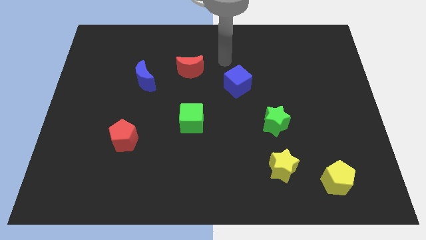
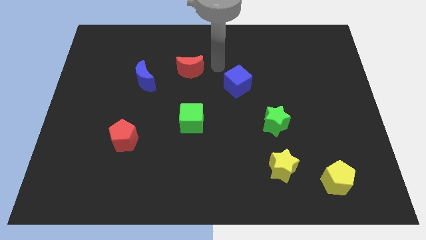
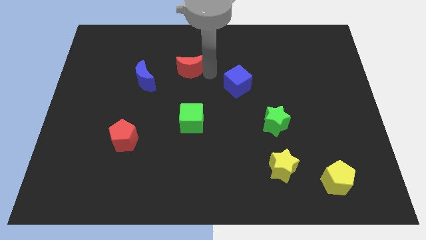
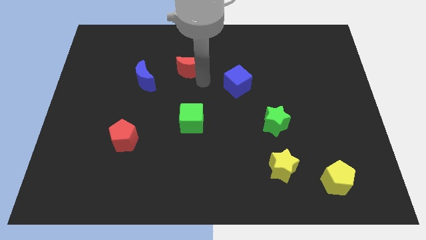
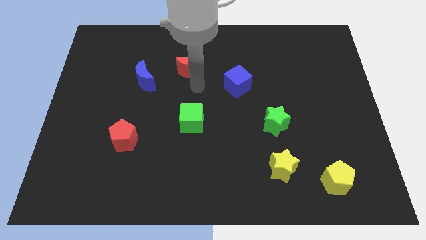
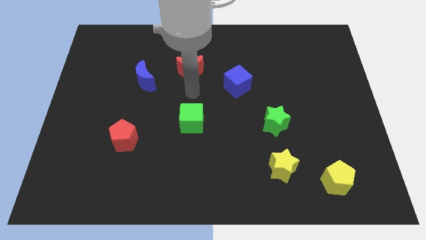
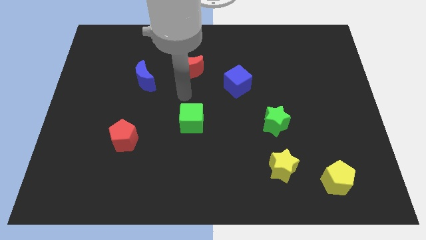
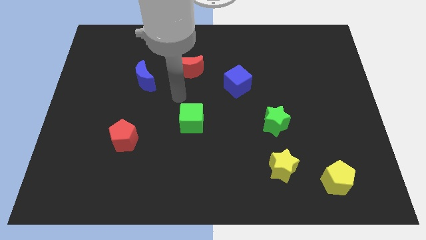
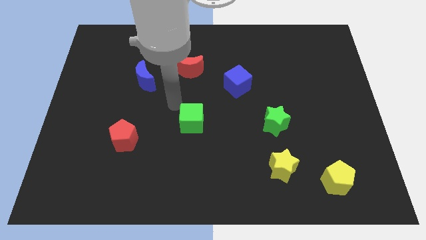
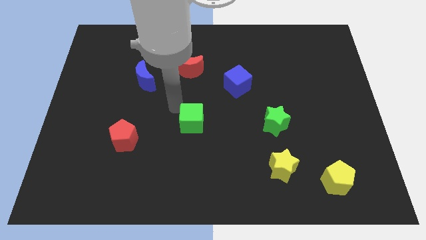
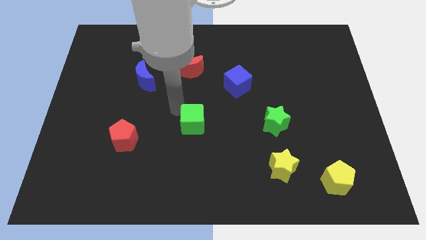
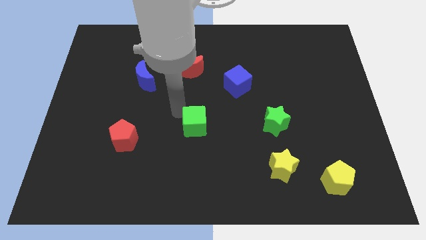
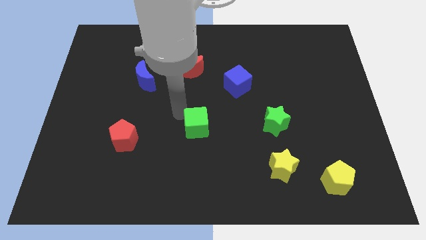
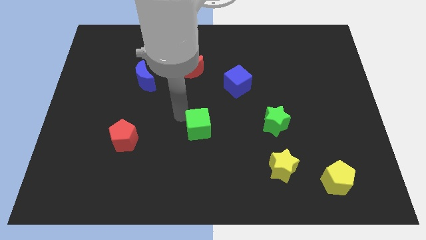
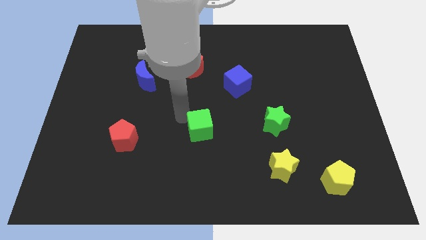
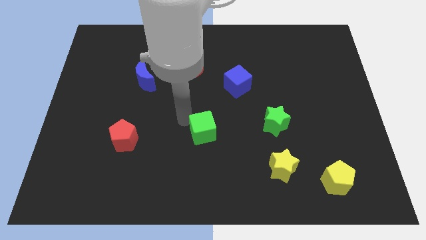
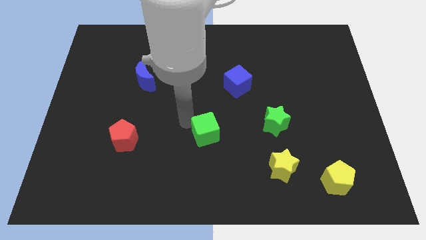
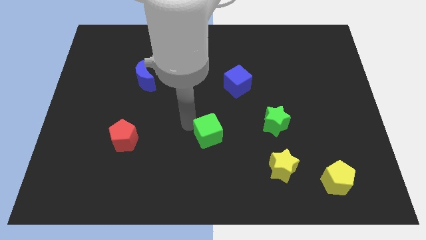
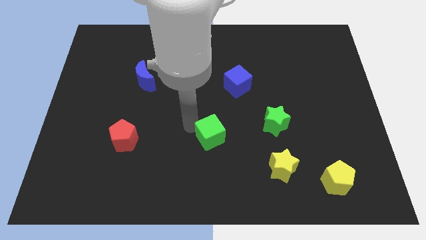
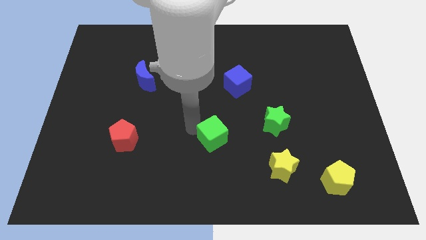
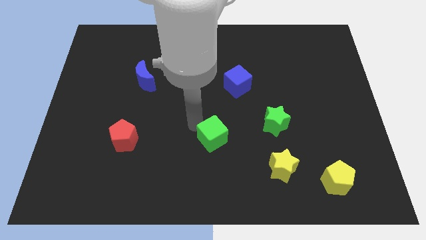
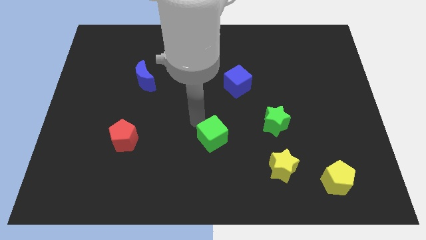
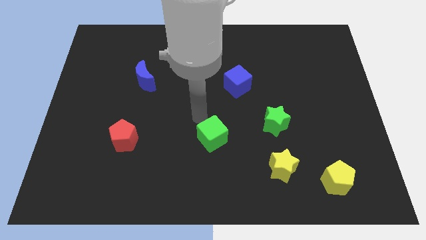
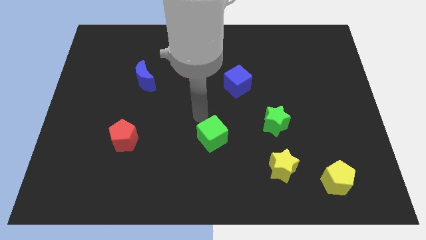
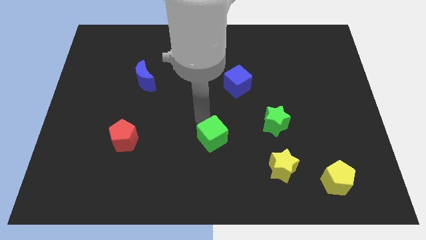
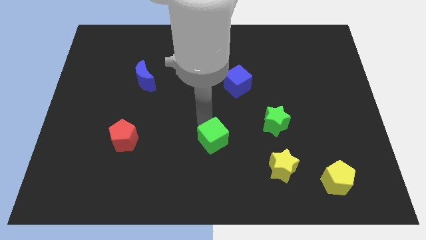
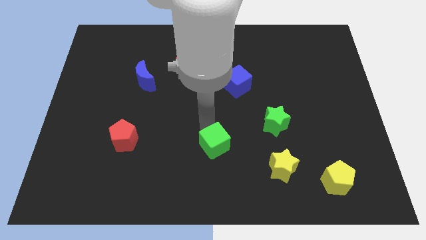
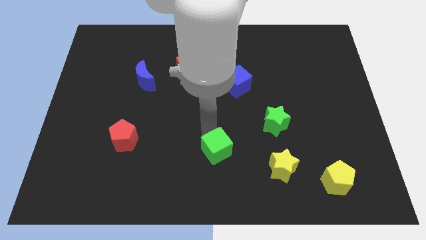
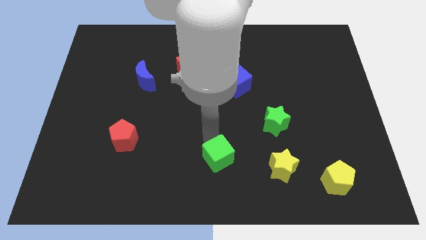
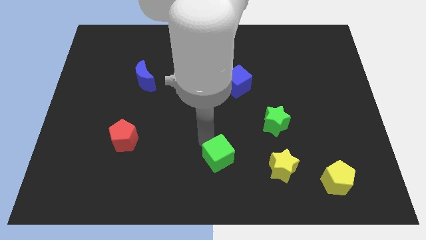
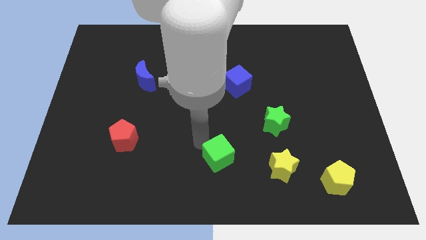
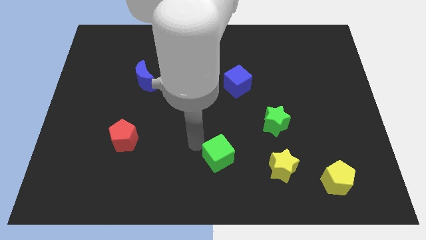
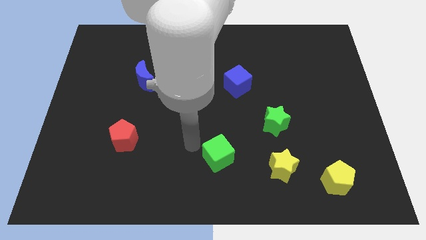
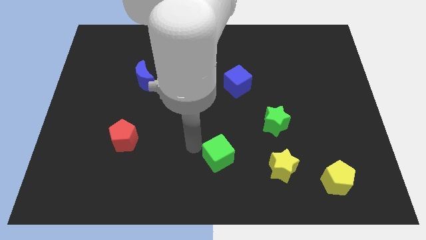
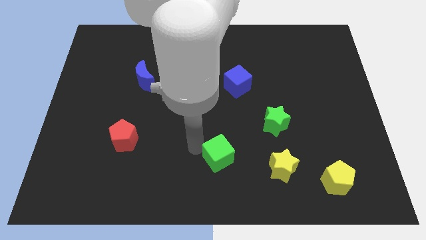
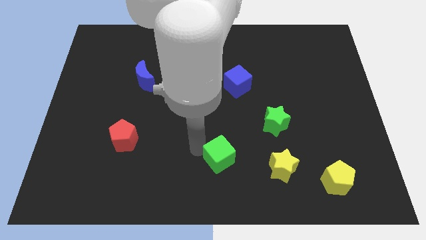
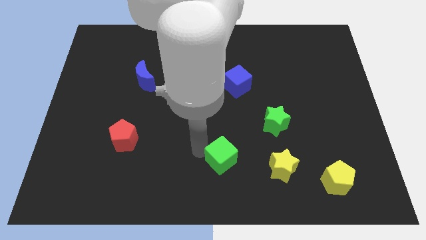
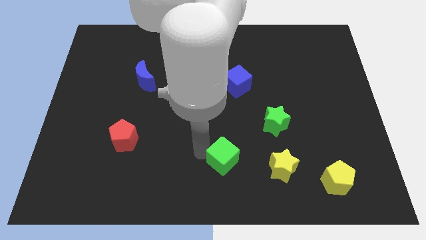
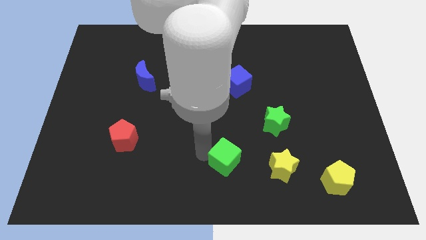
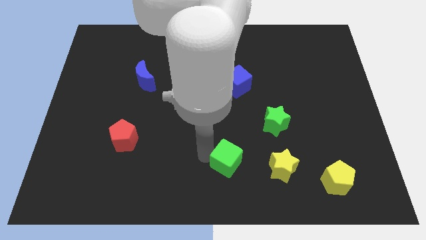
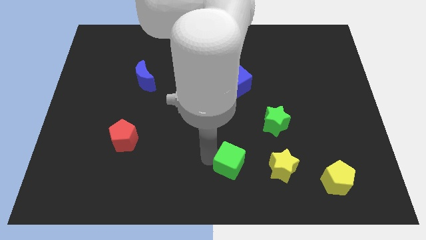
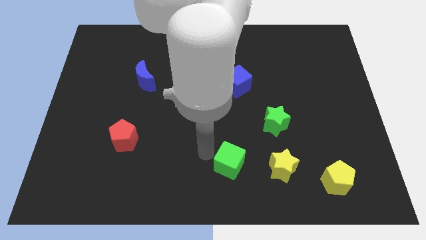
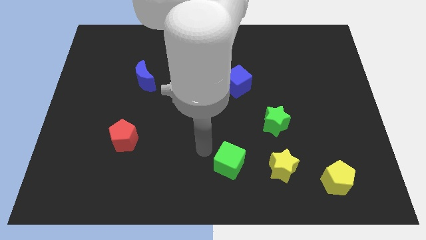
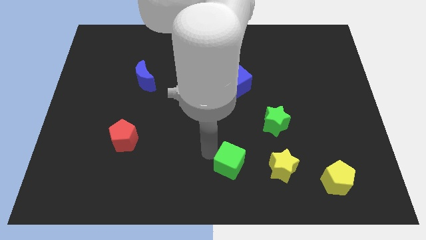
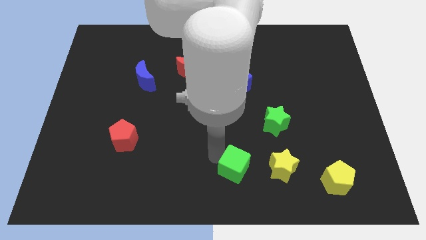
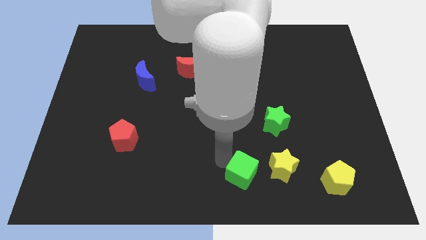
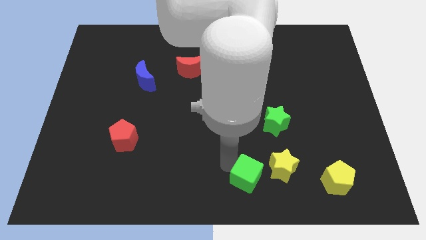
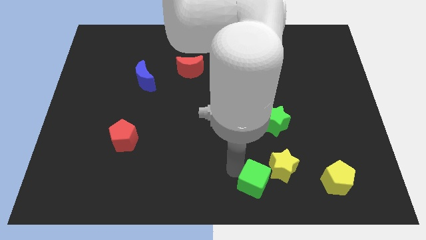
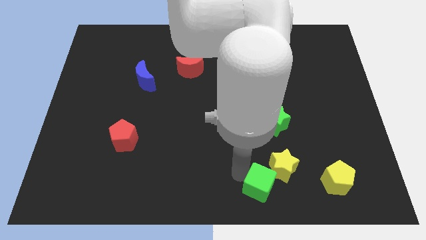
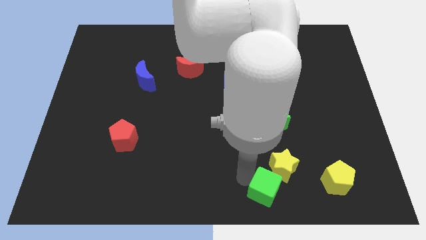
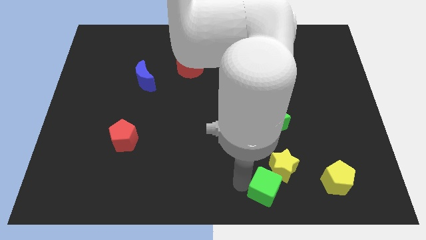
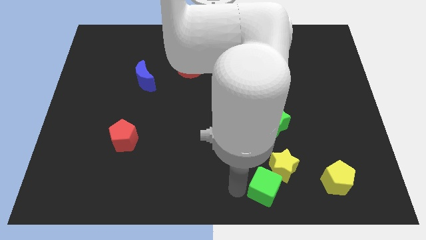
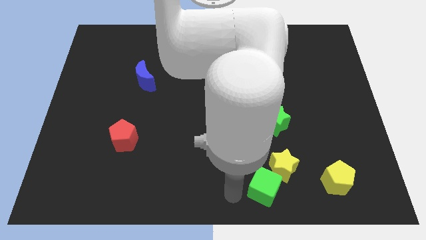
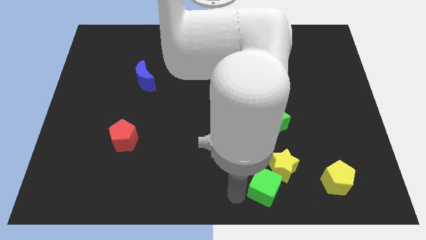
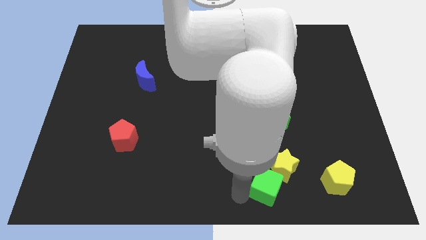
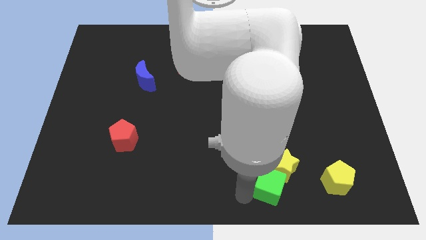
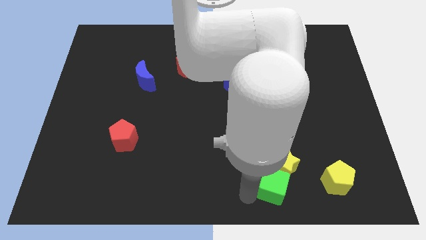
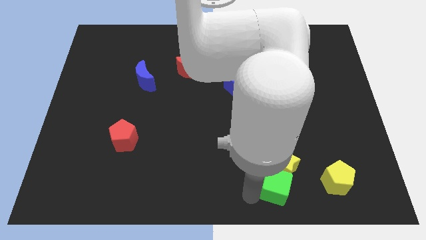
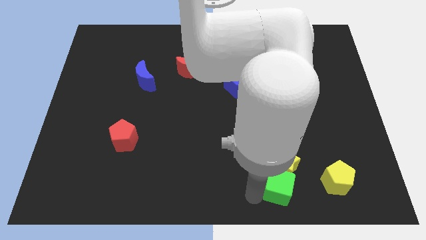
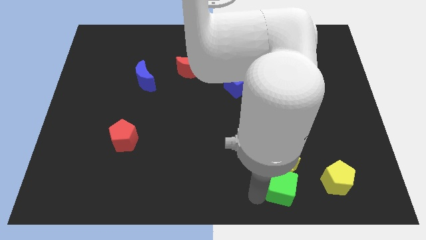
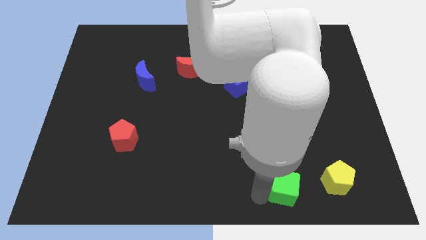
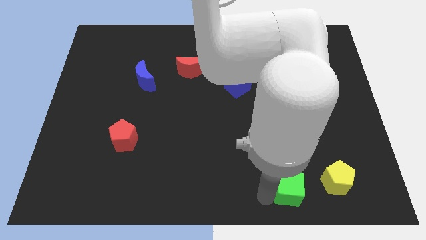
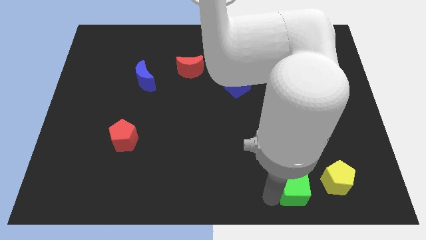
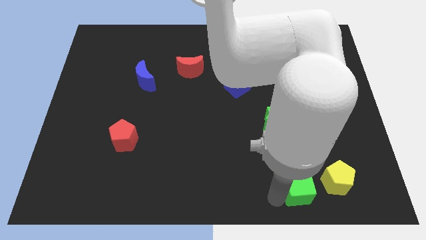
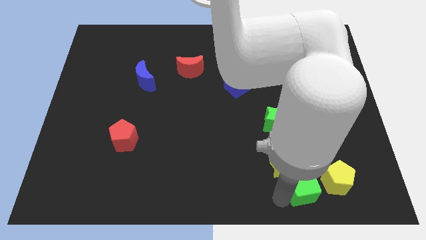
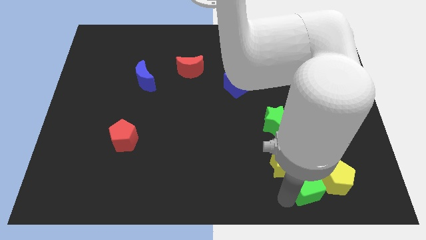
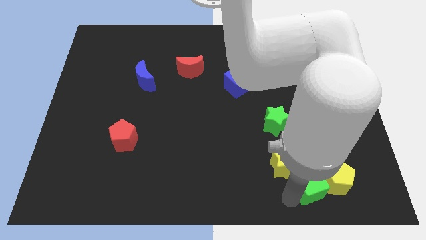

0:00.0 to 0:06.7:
slide the green cube to the yellow pentagon
